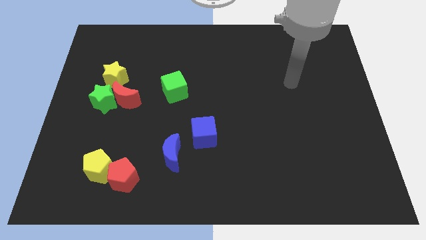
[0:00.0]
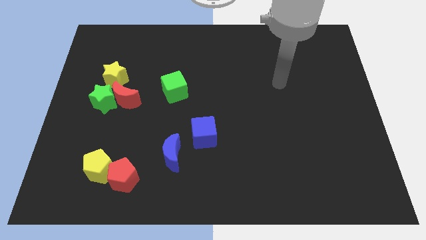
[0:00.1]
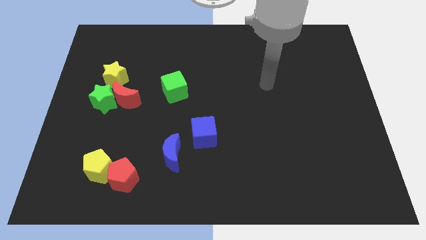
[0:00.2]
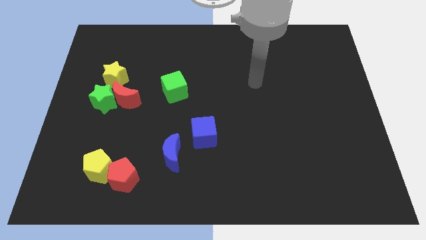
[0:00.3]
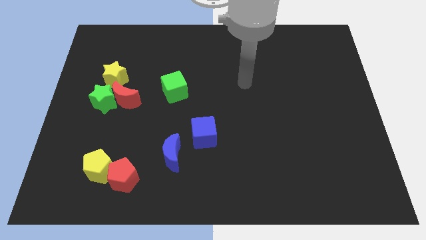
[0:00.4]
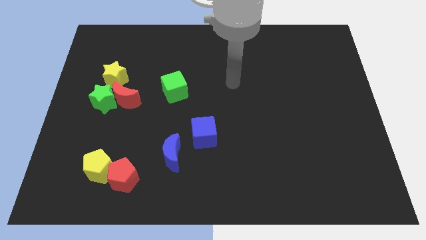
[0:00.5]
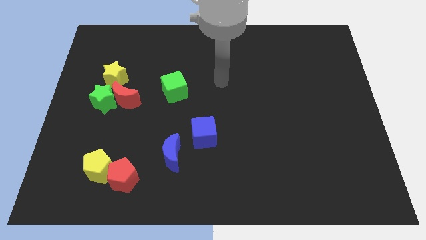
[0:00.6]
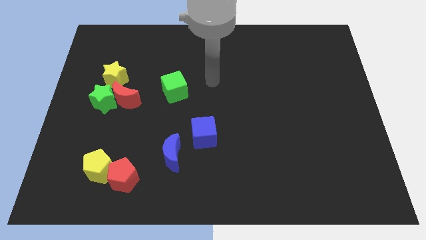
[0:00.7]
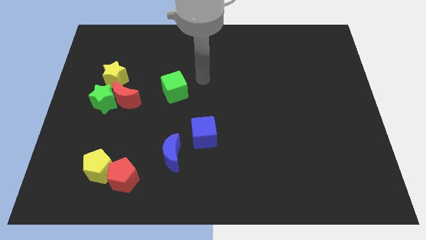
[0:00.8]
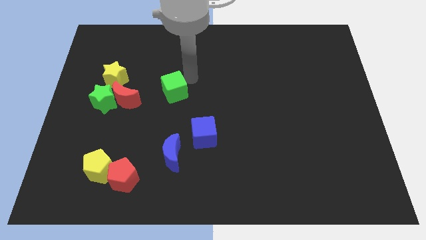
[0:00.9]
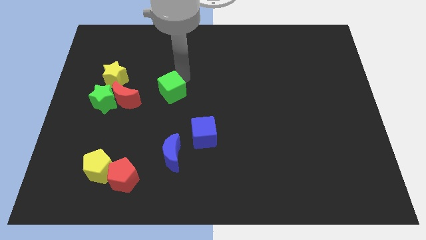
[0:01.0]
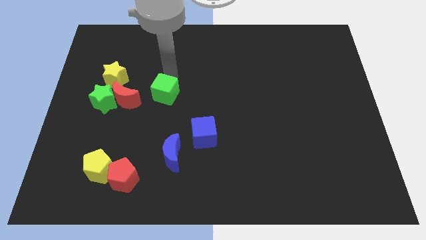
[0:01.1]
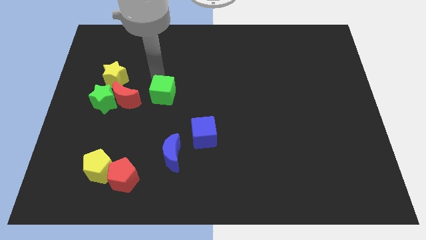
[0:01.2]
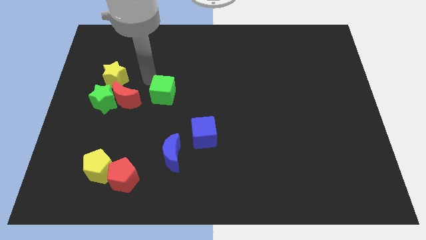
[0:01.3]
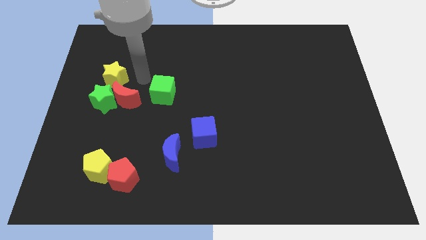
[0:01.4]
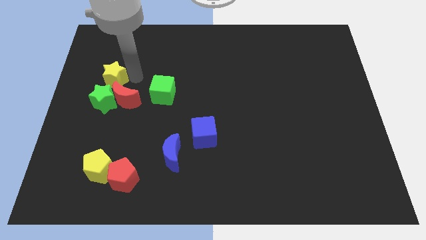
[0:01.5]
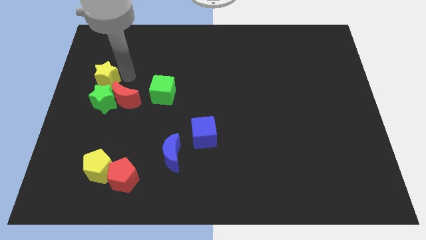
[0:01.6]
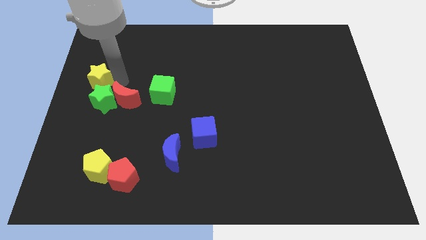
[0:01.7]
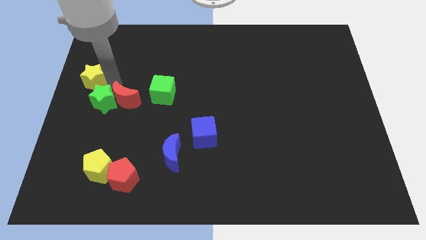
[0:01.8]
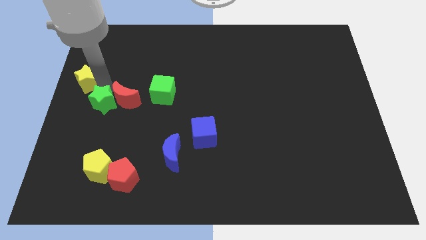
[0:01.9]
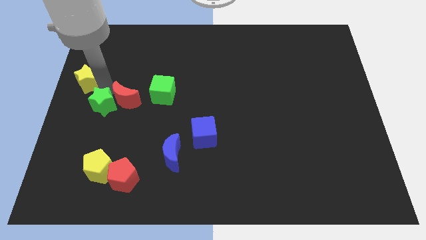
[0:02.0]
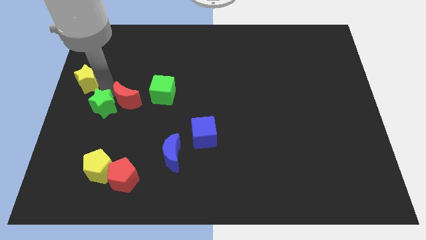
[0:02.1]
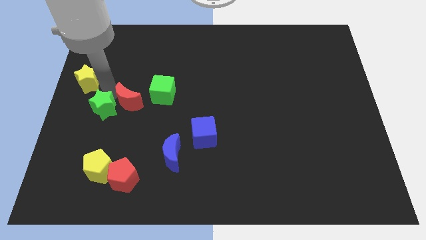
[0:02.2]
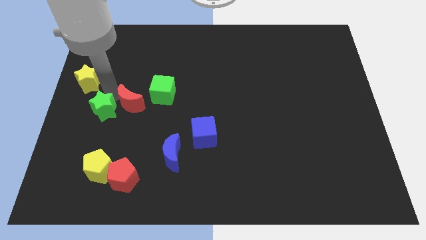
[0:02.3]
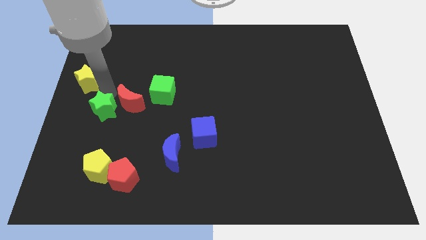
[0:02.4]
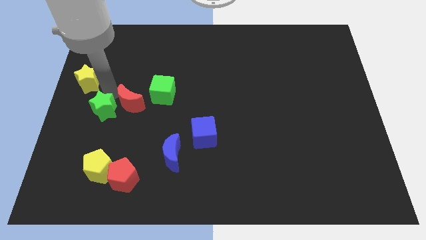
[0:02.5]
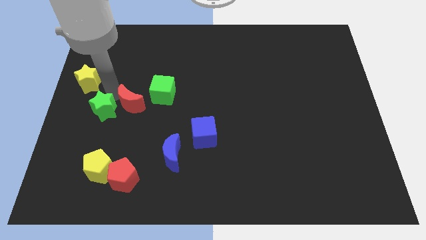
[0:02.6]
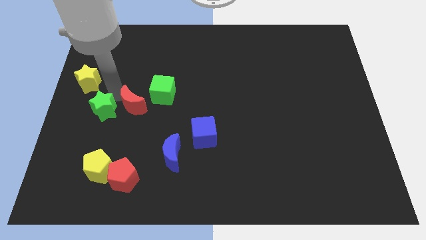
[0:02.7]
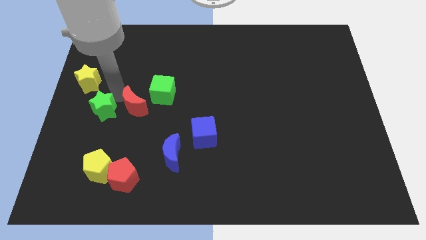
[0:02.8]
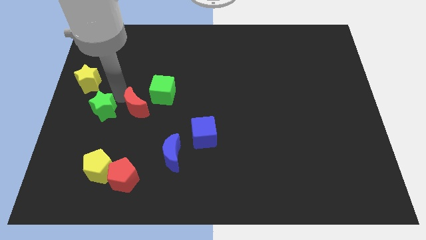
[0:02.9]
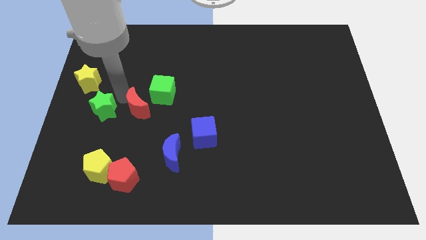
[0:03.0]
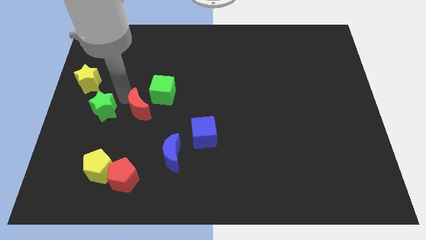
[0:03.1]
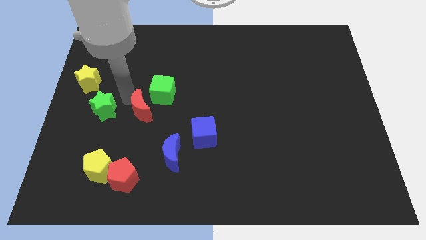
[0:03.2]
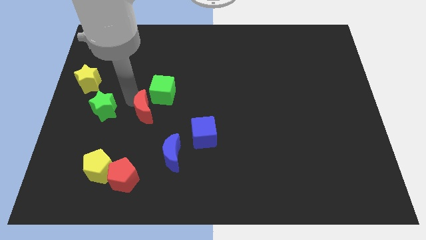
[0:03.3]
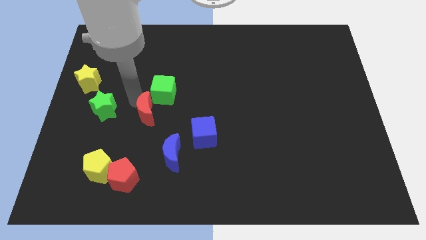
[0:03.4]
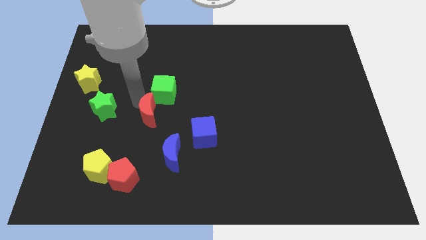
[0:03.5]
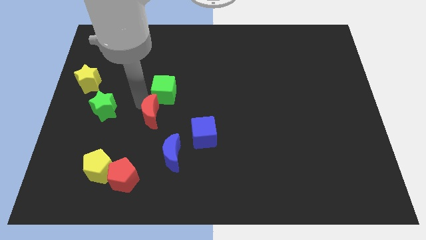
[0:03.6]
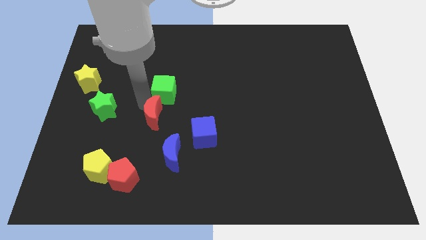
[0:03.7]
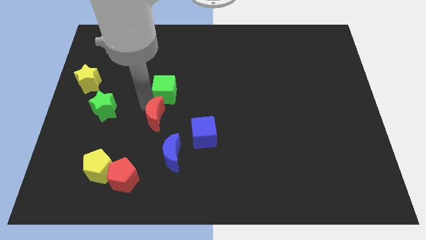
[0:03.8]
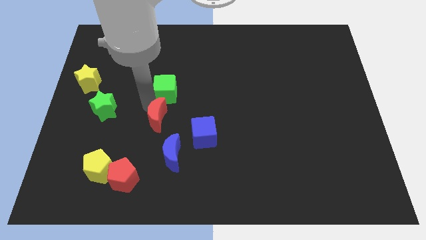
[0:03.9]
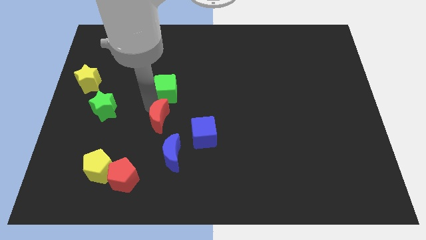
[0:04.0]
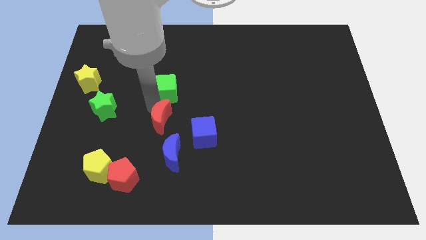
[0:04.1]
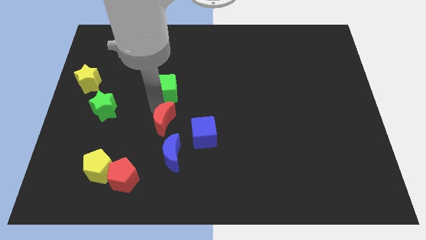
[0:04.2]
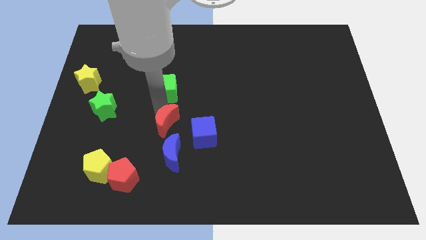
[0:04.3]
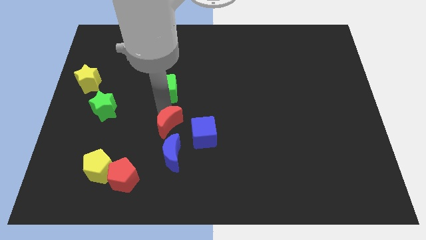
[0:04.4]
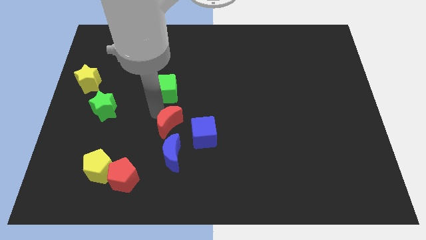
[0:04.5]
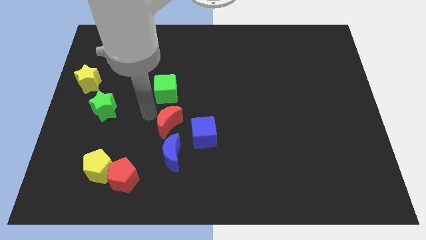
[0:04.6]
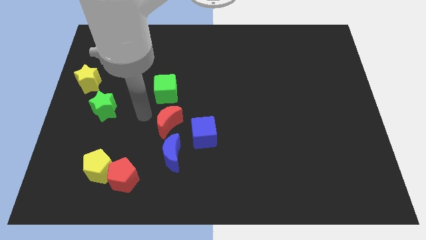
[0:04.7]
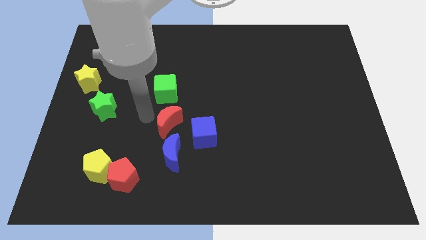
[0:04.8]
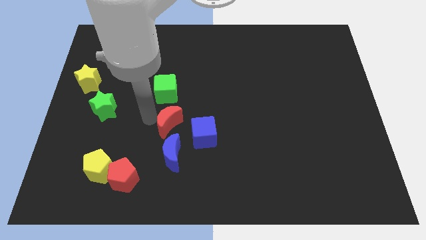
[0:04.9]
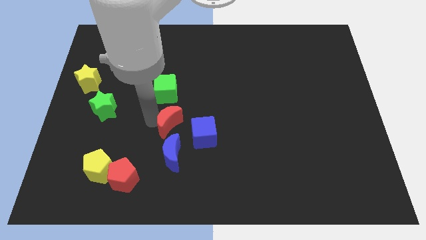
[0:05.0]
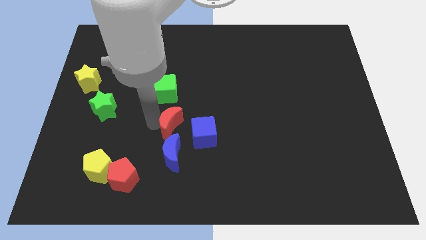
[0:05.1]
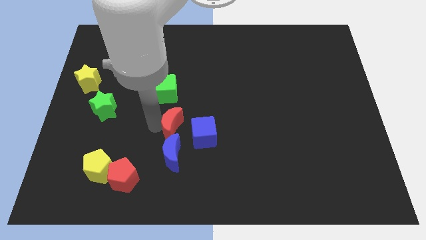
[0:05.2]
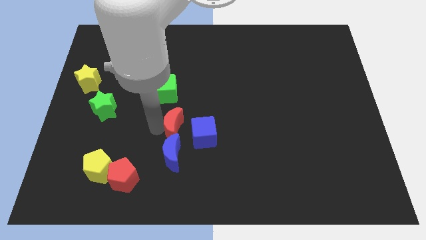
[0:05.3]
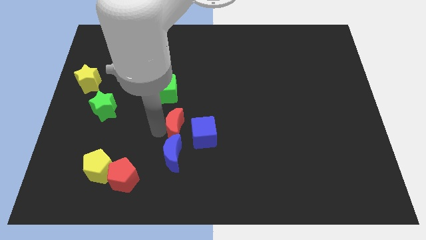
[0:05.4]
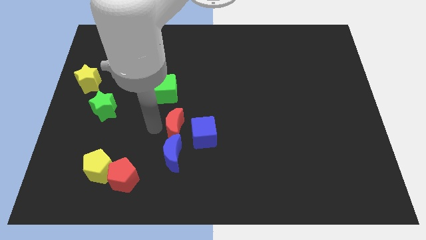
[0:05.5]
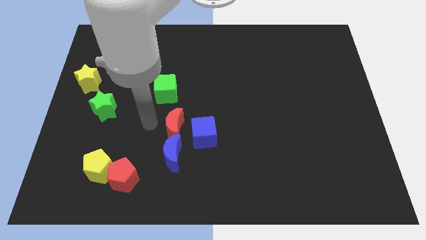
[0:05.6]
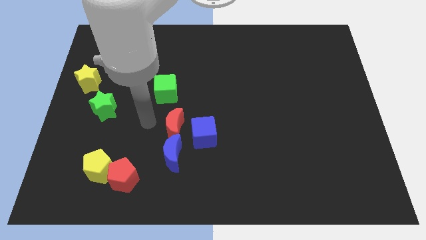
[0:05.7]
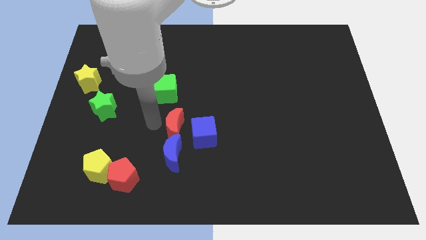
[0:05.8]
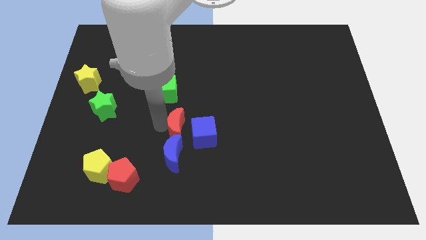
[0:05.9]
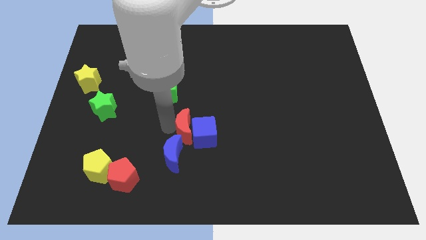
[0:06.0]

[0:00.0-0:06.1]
move the red moon to the blue cube

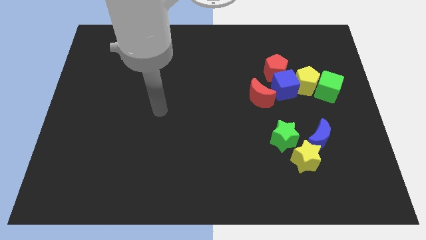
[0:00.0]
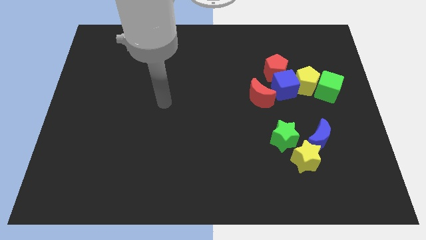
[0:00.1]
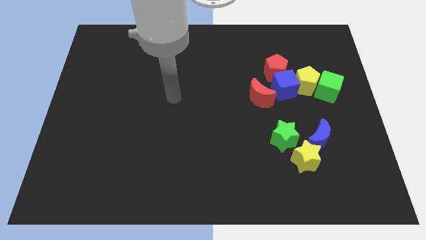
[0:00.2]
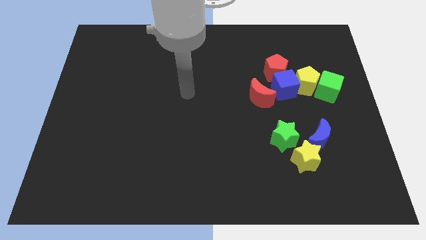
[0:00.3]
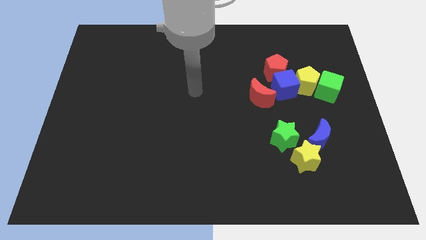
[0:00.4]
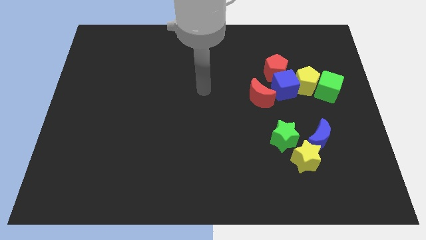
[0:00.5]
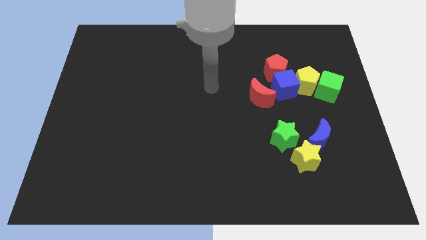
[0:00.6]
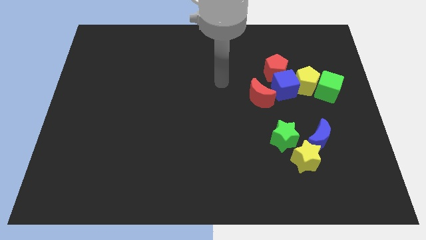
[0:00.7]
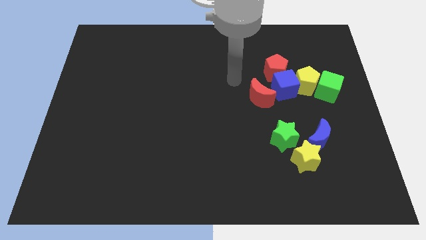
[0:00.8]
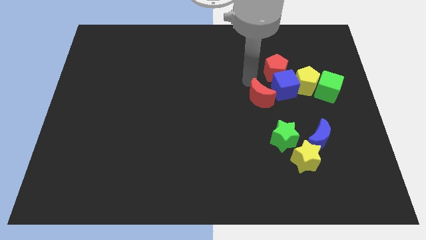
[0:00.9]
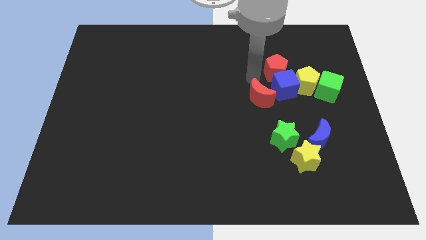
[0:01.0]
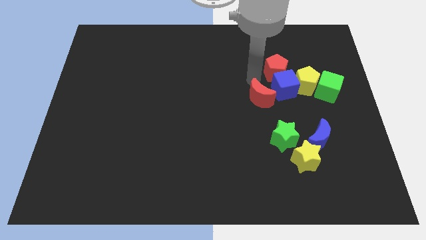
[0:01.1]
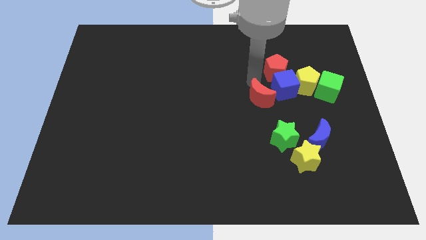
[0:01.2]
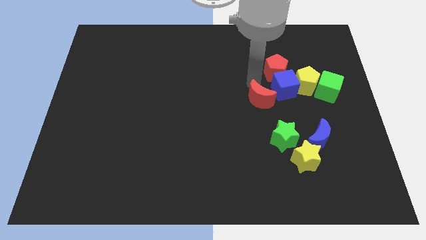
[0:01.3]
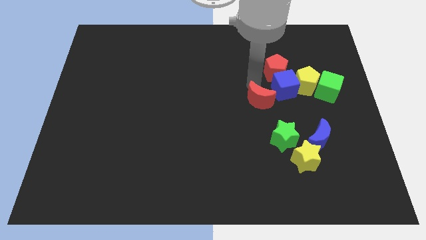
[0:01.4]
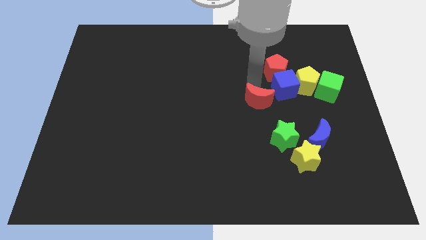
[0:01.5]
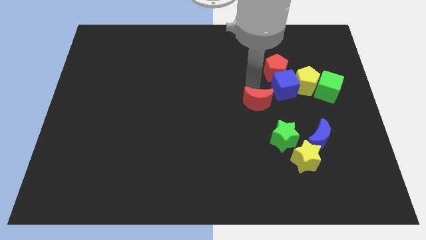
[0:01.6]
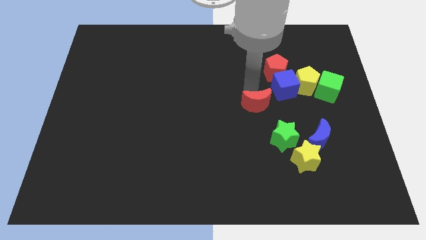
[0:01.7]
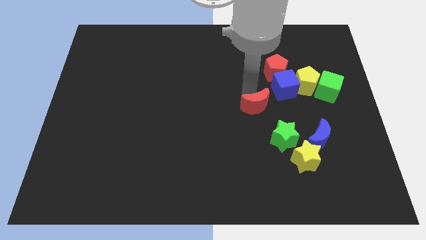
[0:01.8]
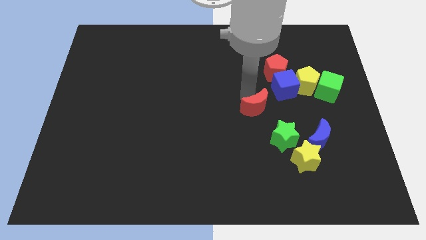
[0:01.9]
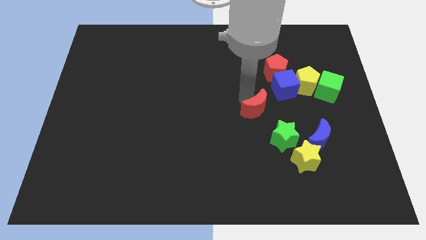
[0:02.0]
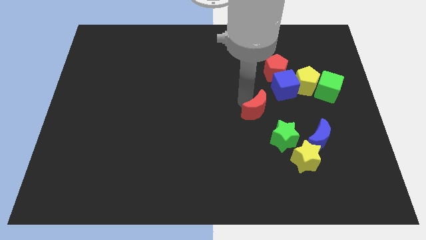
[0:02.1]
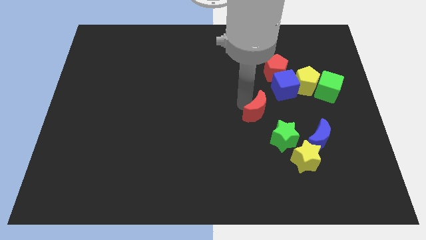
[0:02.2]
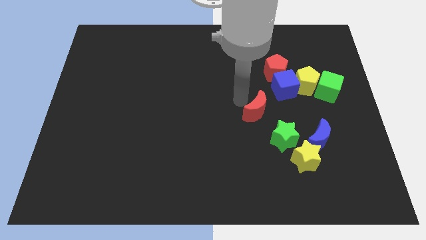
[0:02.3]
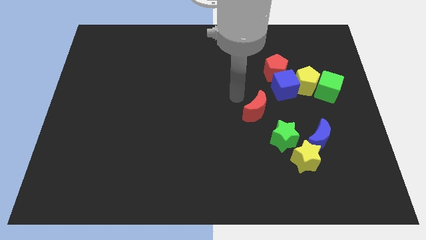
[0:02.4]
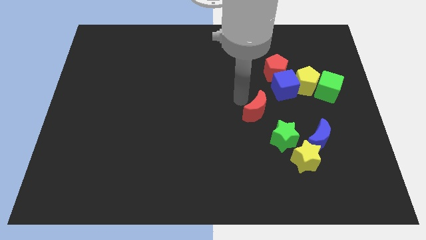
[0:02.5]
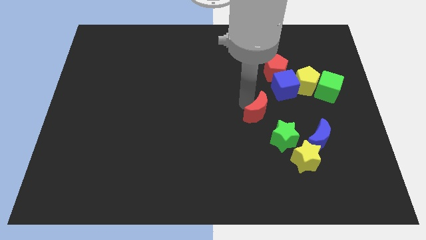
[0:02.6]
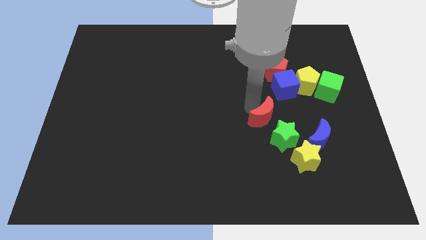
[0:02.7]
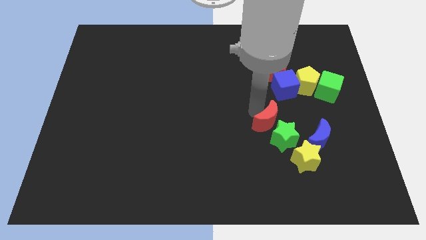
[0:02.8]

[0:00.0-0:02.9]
move the red moon towards the green star
